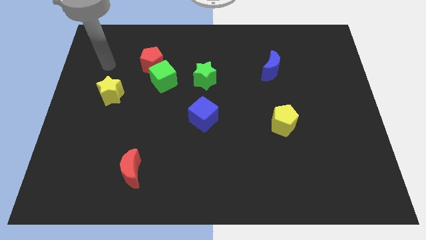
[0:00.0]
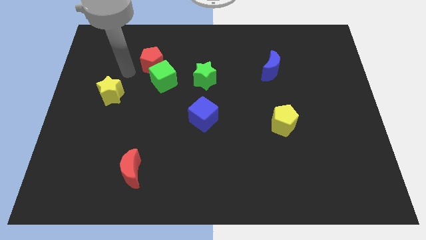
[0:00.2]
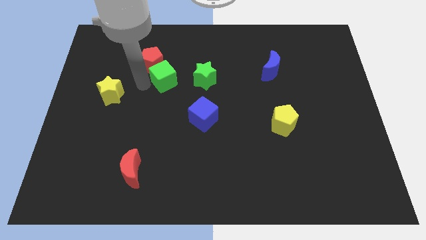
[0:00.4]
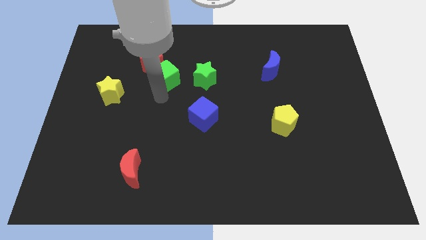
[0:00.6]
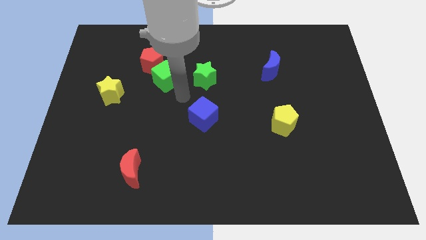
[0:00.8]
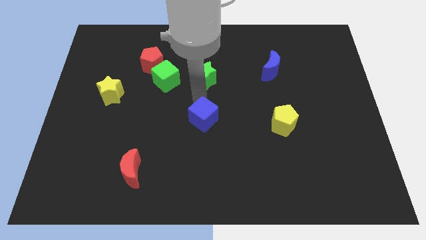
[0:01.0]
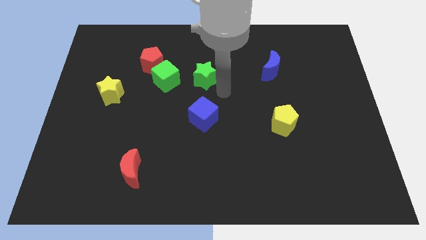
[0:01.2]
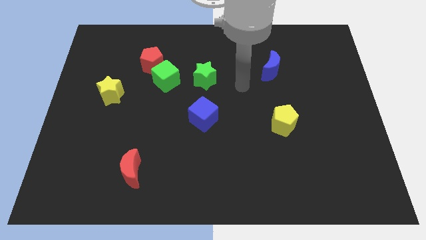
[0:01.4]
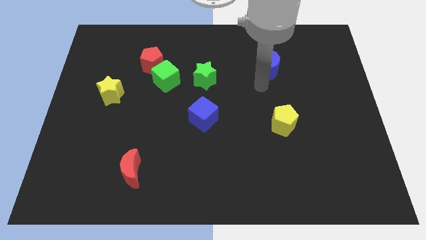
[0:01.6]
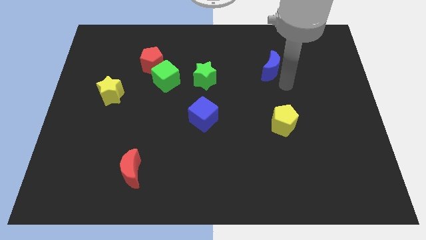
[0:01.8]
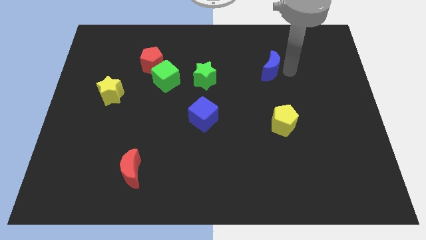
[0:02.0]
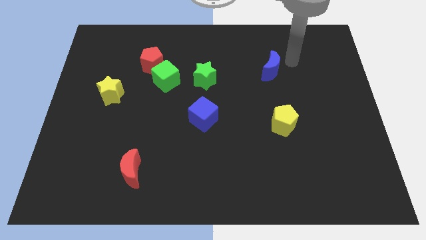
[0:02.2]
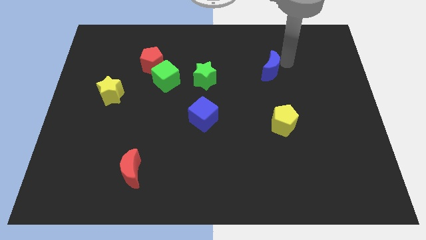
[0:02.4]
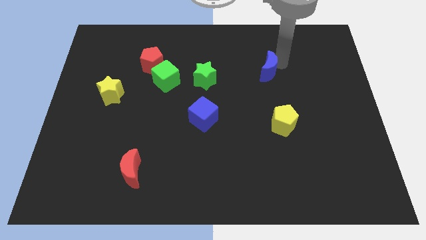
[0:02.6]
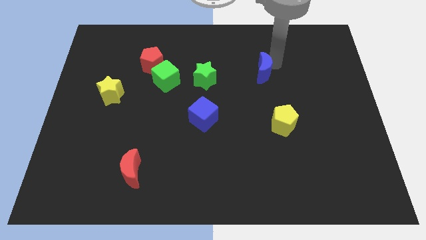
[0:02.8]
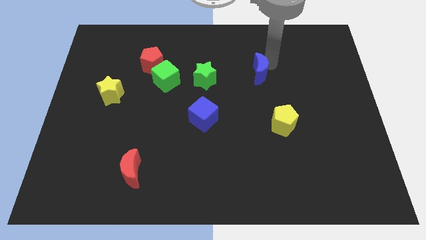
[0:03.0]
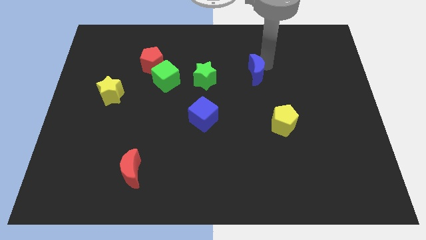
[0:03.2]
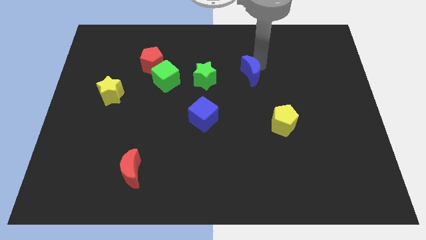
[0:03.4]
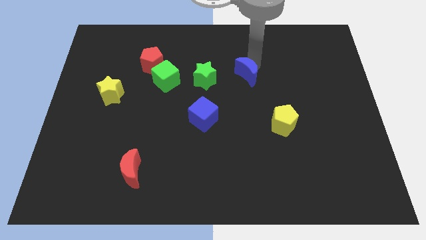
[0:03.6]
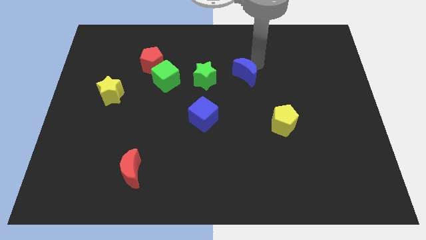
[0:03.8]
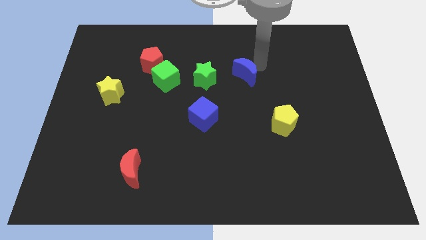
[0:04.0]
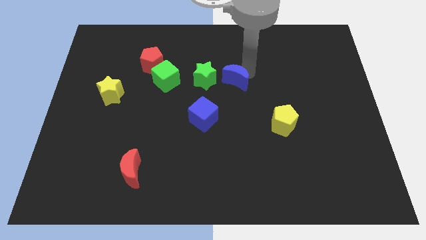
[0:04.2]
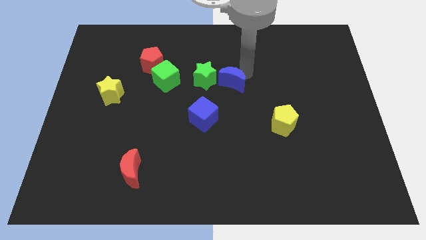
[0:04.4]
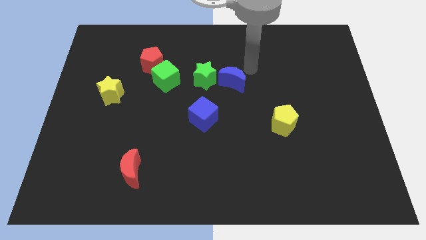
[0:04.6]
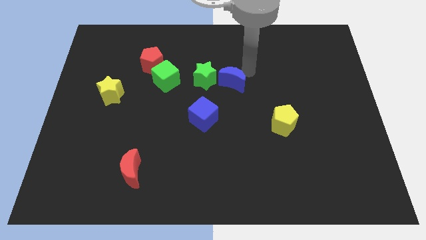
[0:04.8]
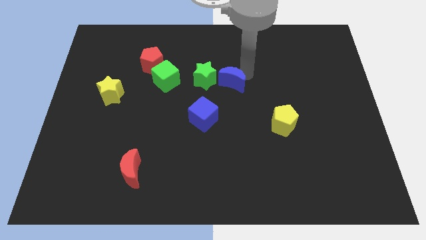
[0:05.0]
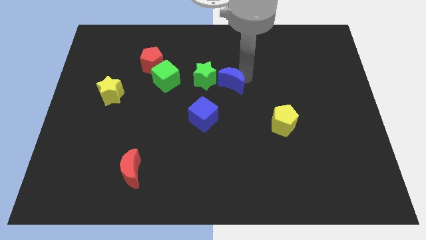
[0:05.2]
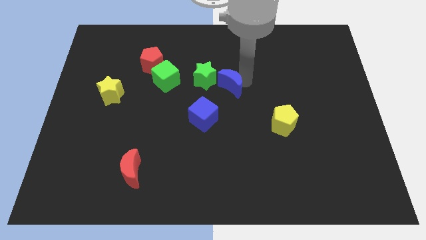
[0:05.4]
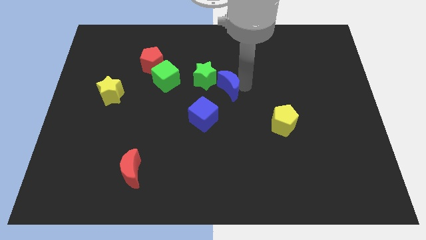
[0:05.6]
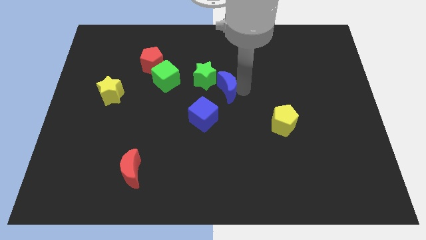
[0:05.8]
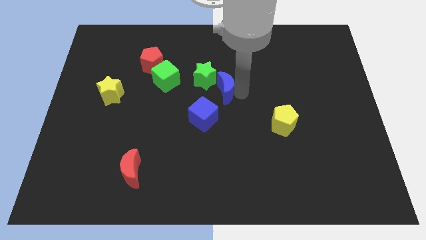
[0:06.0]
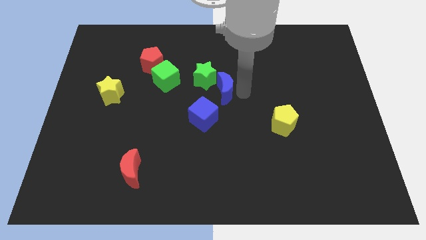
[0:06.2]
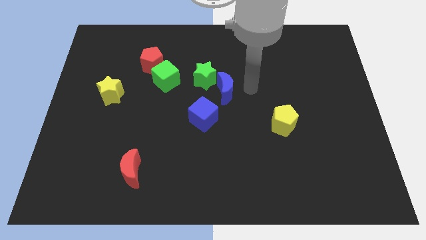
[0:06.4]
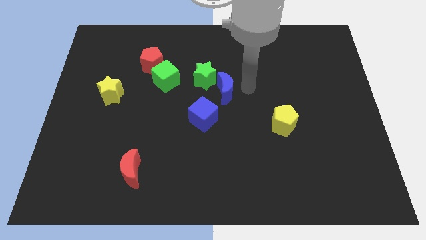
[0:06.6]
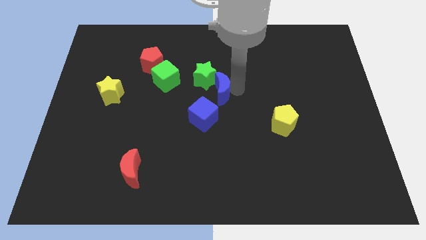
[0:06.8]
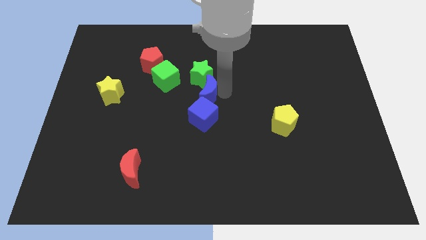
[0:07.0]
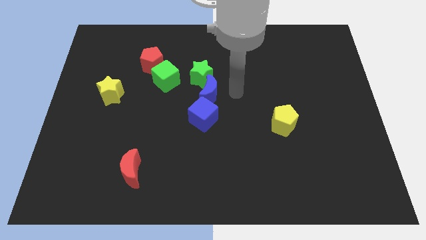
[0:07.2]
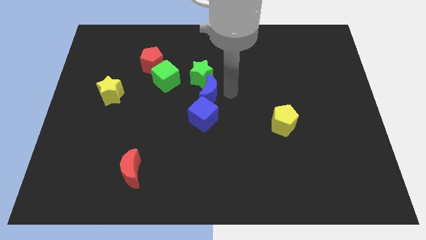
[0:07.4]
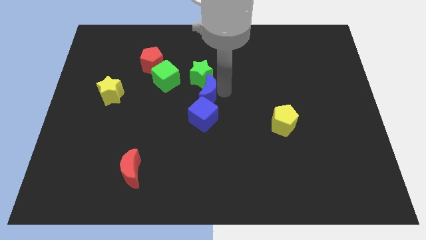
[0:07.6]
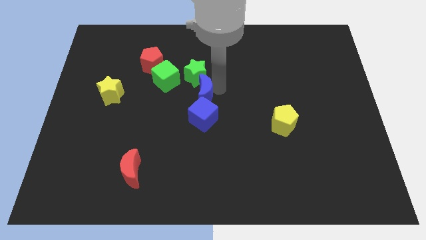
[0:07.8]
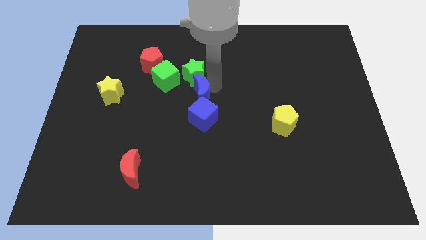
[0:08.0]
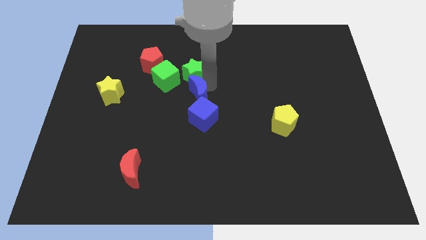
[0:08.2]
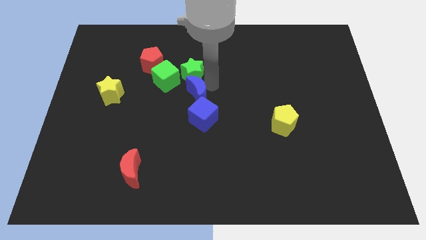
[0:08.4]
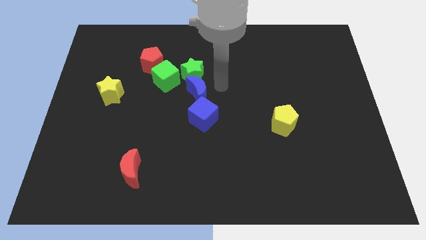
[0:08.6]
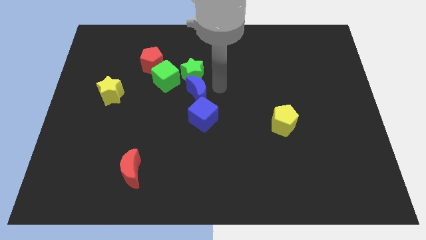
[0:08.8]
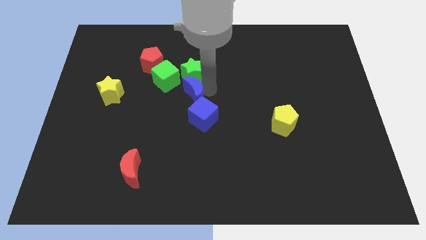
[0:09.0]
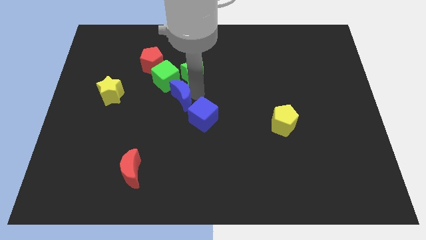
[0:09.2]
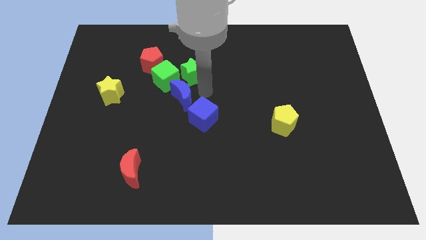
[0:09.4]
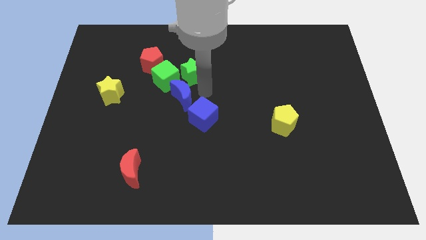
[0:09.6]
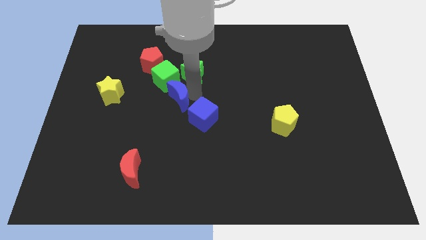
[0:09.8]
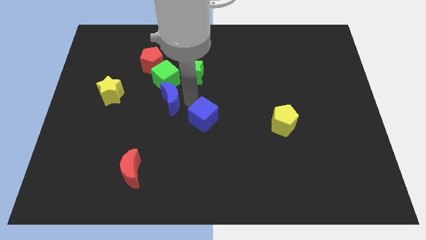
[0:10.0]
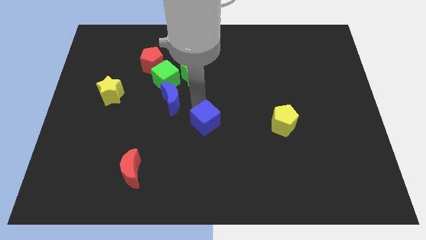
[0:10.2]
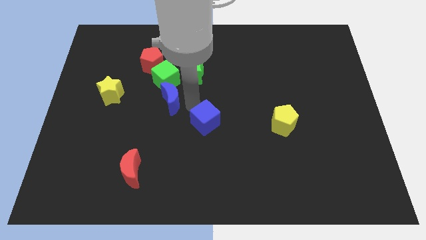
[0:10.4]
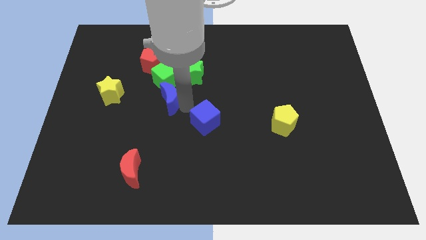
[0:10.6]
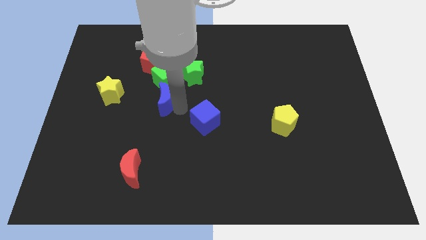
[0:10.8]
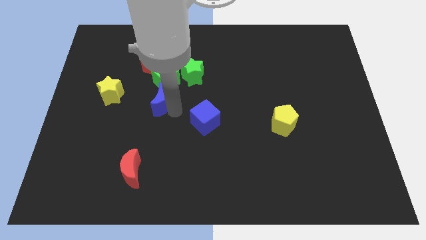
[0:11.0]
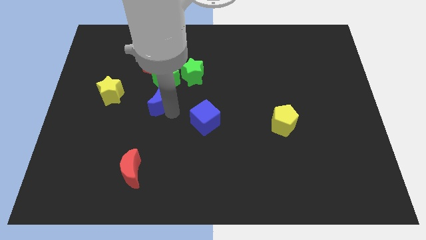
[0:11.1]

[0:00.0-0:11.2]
move the blue moon diagonally down and to the left of the green cube

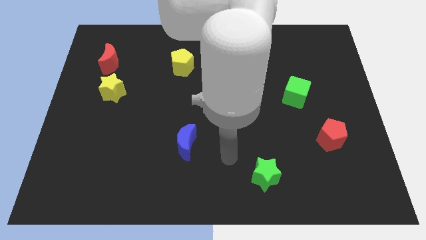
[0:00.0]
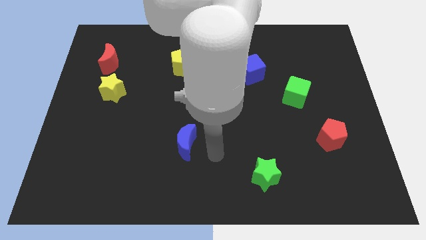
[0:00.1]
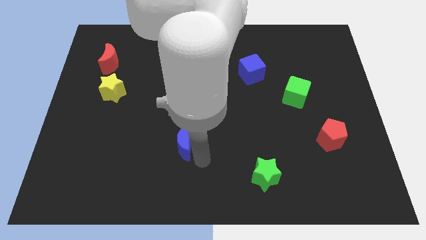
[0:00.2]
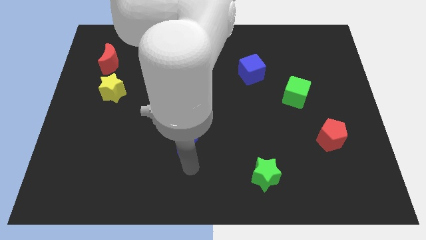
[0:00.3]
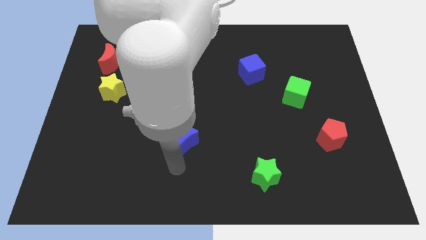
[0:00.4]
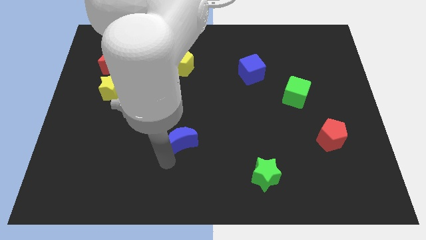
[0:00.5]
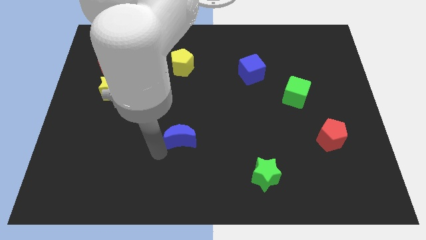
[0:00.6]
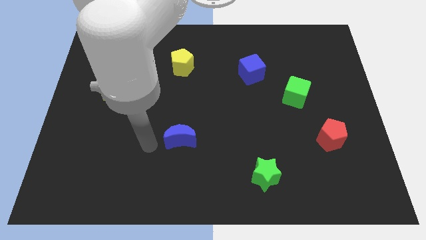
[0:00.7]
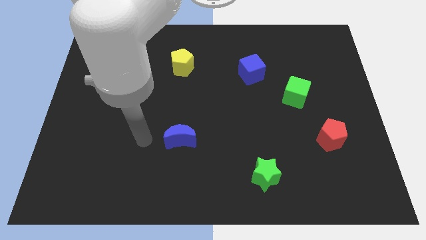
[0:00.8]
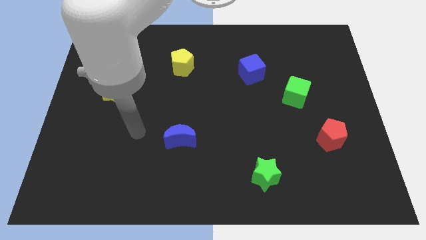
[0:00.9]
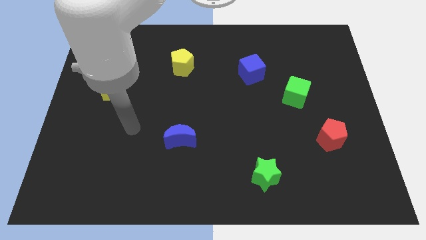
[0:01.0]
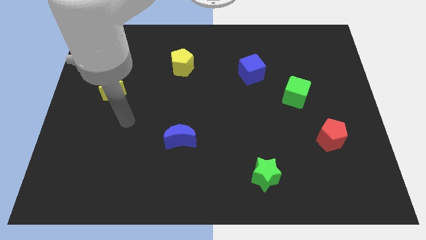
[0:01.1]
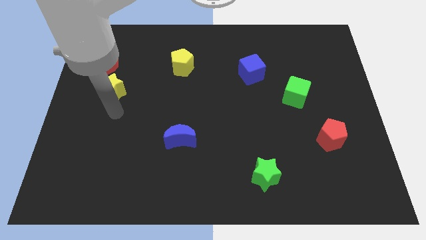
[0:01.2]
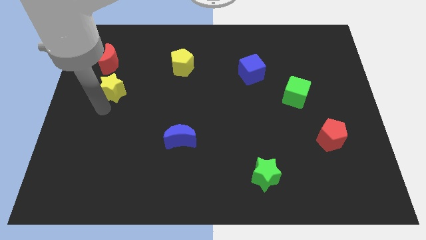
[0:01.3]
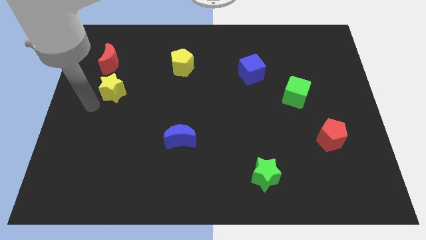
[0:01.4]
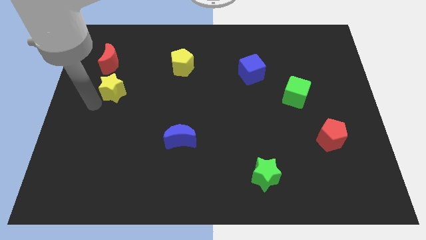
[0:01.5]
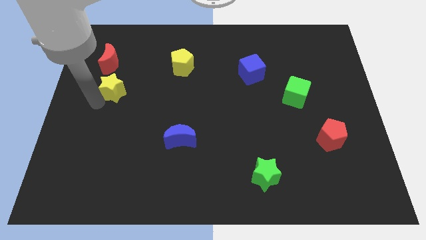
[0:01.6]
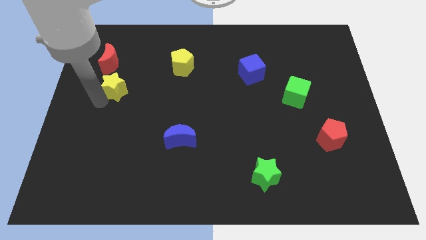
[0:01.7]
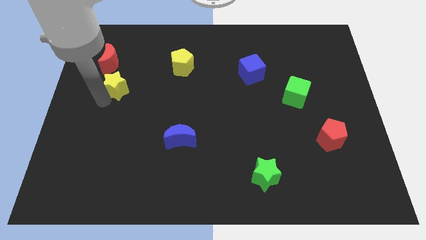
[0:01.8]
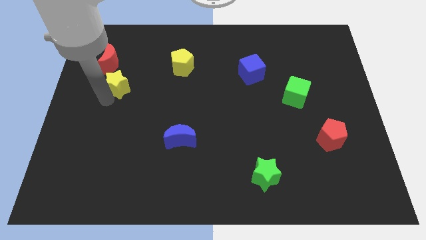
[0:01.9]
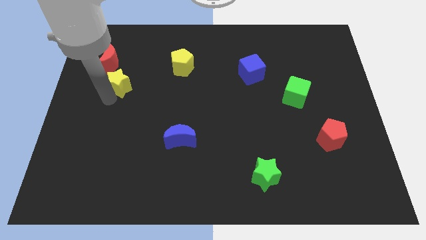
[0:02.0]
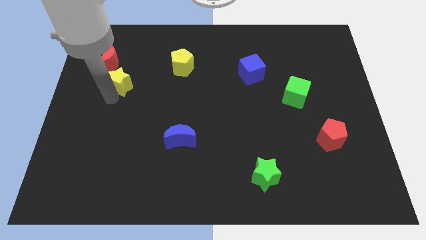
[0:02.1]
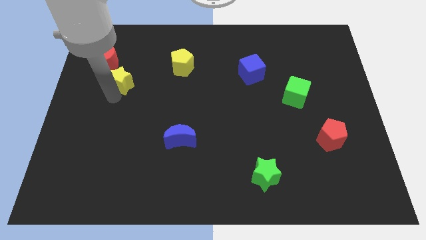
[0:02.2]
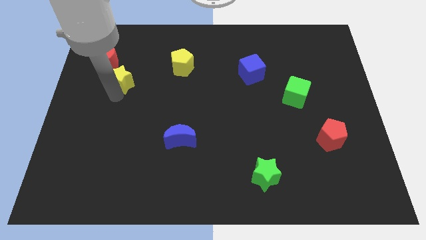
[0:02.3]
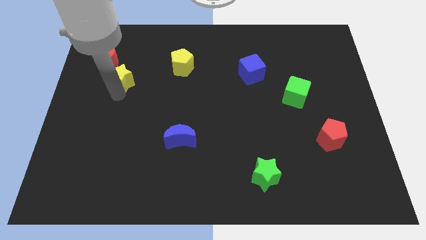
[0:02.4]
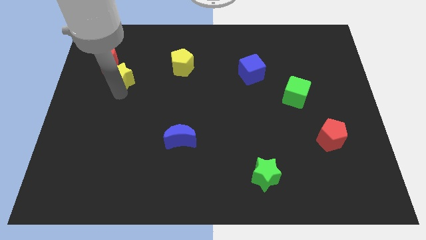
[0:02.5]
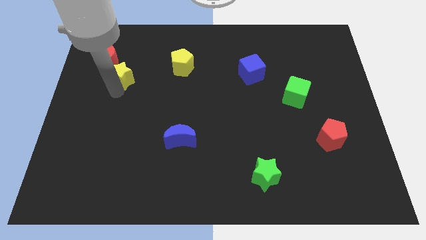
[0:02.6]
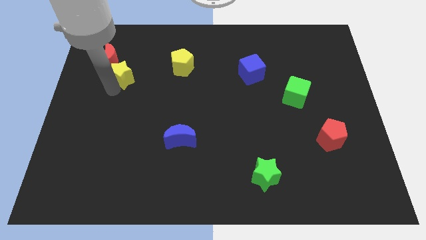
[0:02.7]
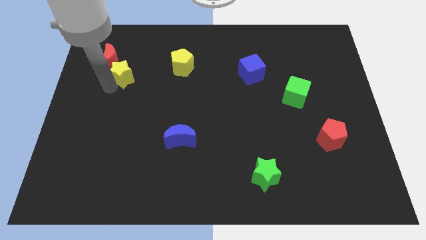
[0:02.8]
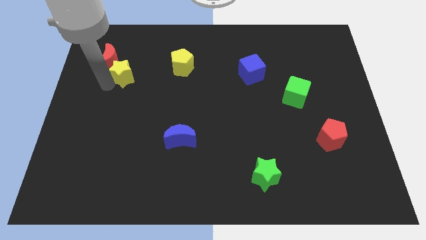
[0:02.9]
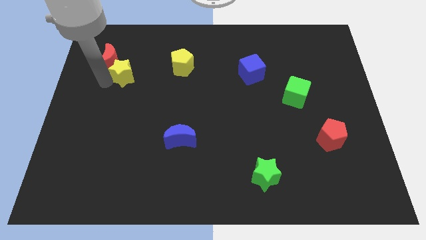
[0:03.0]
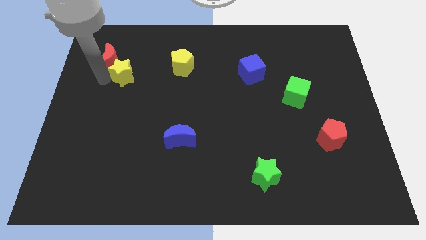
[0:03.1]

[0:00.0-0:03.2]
slide the yellow star to the right of the red moon
